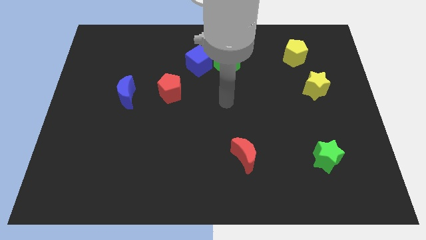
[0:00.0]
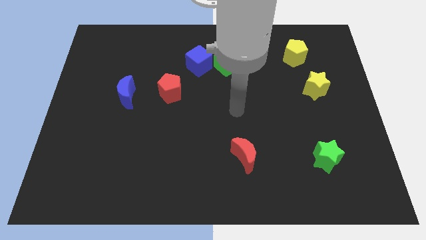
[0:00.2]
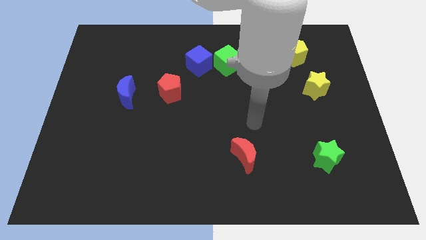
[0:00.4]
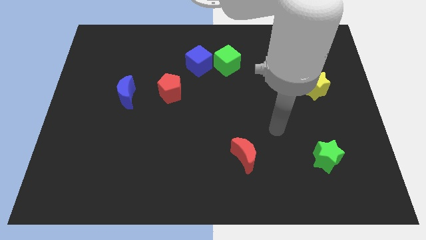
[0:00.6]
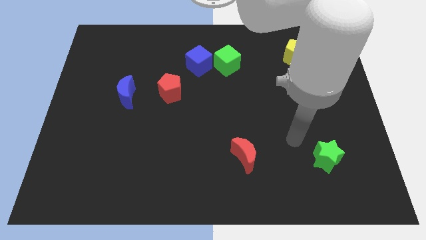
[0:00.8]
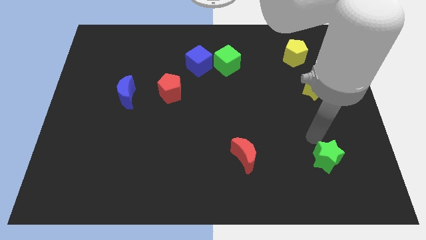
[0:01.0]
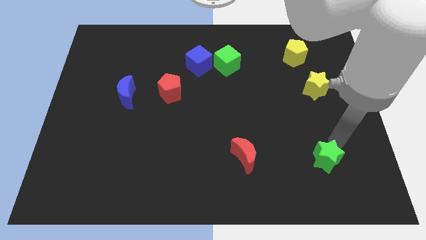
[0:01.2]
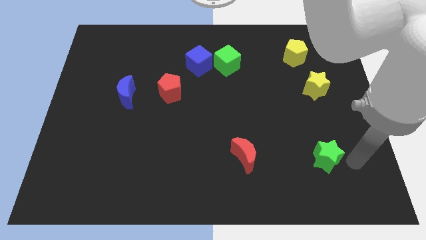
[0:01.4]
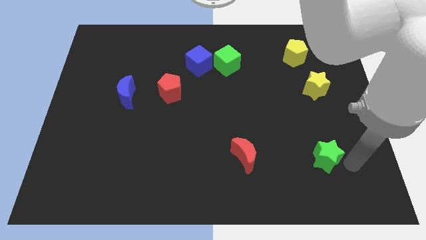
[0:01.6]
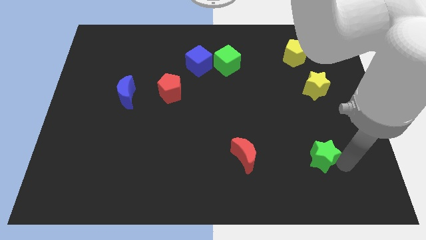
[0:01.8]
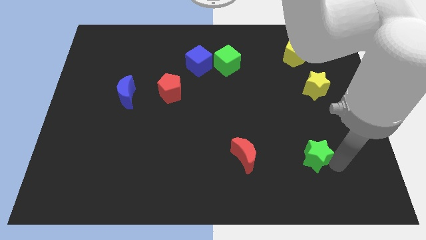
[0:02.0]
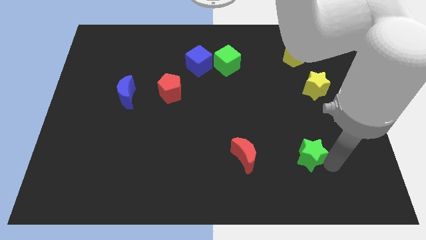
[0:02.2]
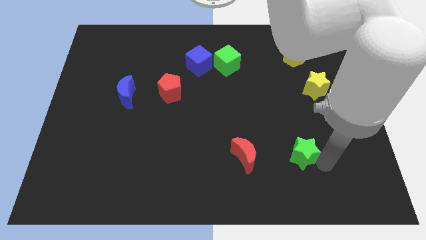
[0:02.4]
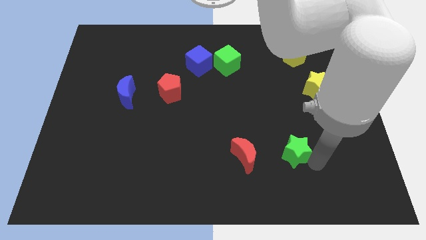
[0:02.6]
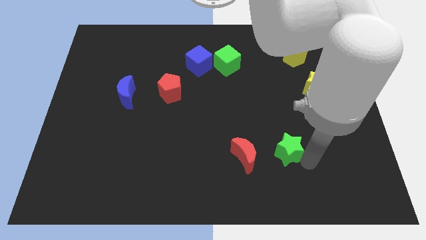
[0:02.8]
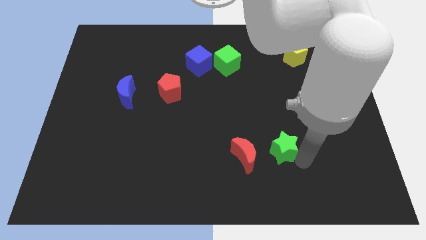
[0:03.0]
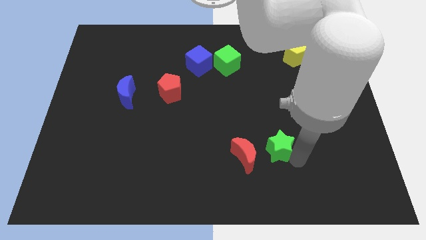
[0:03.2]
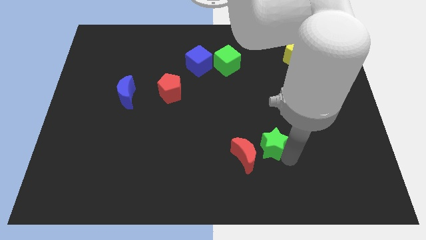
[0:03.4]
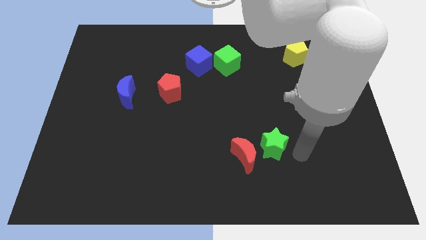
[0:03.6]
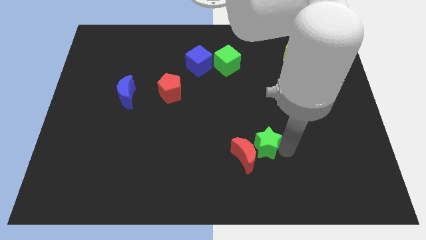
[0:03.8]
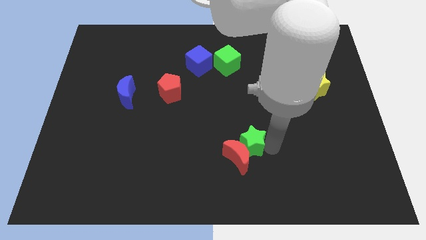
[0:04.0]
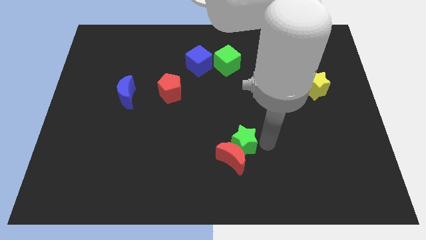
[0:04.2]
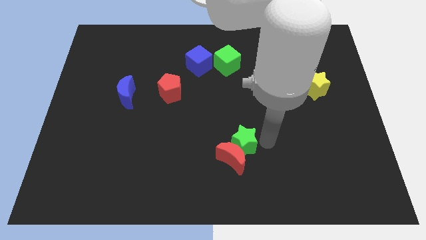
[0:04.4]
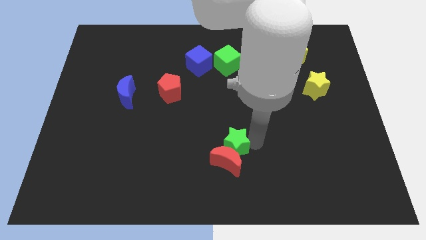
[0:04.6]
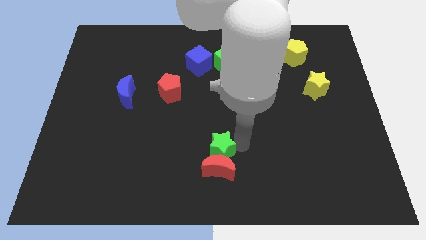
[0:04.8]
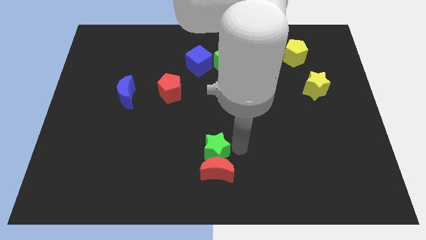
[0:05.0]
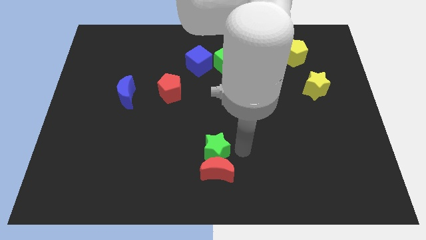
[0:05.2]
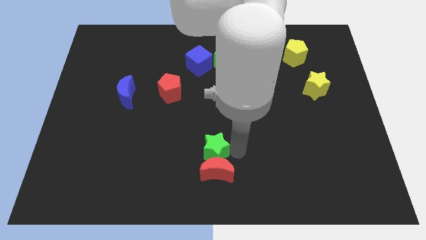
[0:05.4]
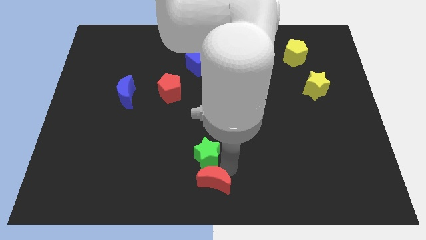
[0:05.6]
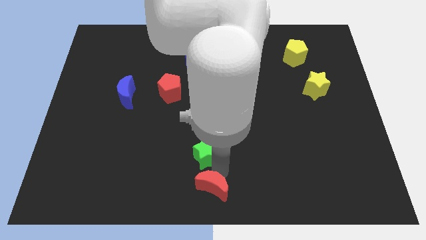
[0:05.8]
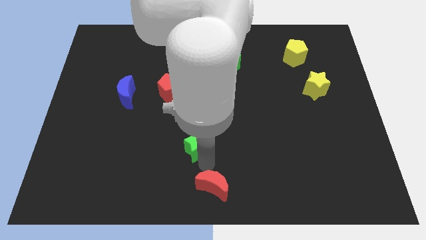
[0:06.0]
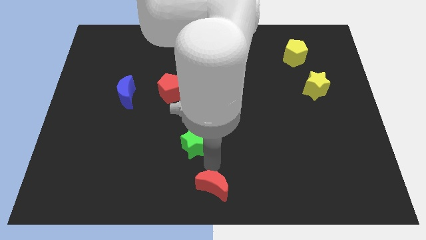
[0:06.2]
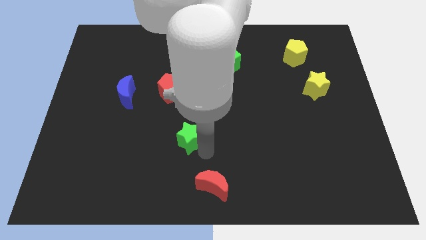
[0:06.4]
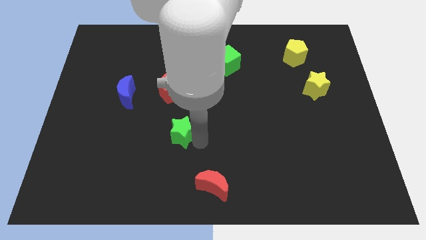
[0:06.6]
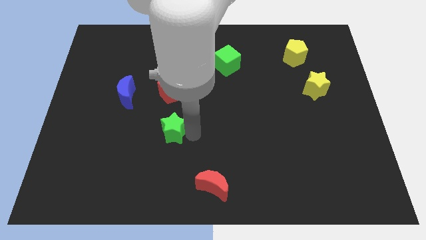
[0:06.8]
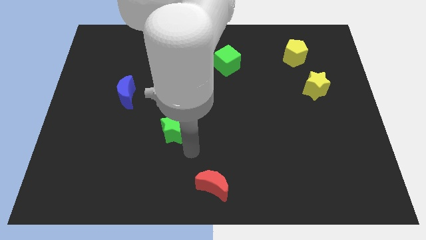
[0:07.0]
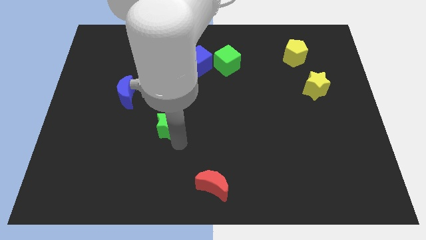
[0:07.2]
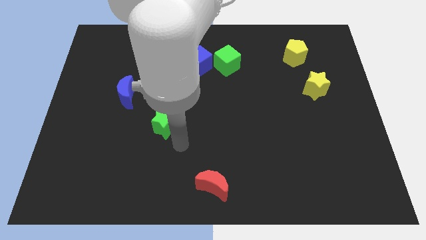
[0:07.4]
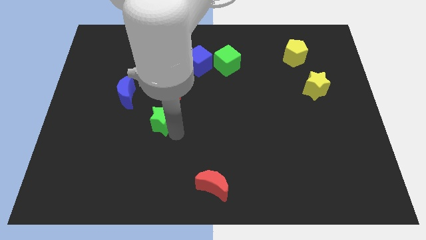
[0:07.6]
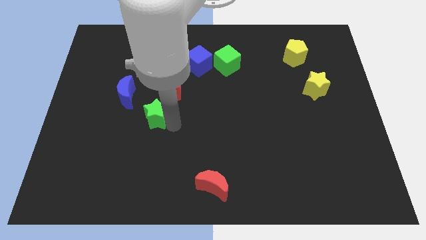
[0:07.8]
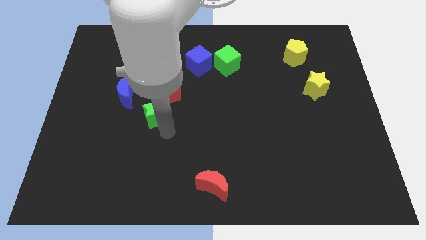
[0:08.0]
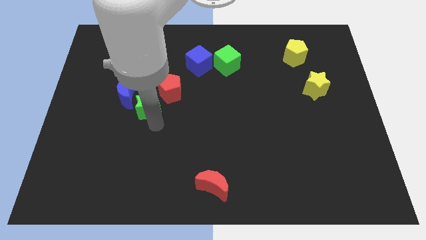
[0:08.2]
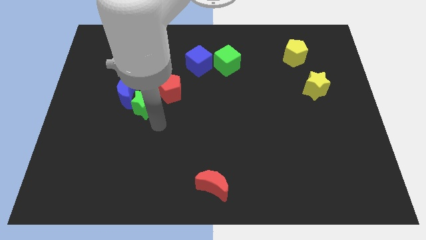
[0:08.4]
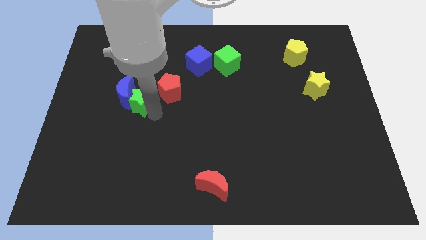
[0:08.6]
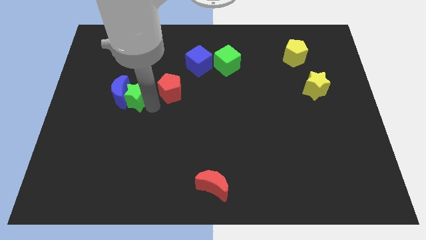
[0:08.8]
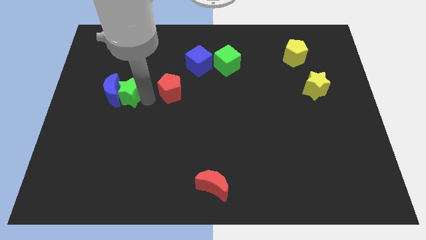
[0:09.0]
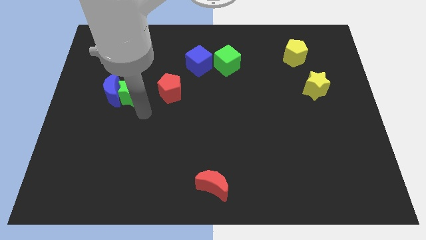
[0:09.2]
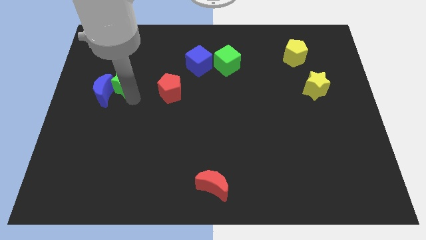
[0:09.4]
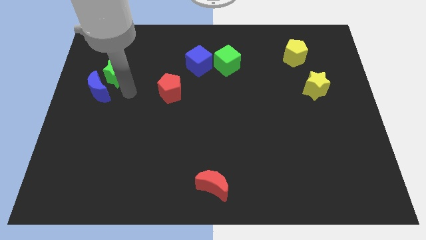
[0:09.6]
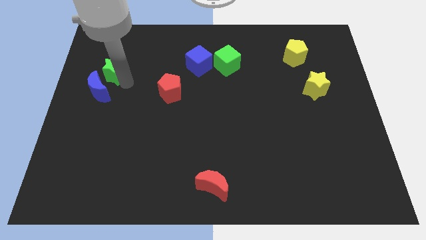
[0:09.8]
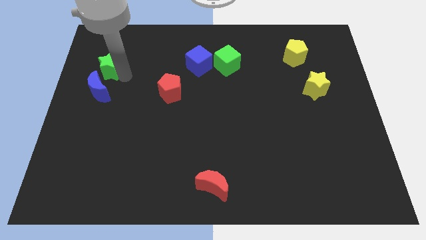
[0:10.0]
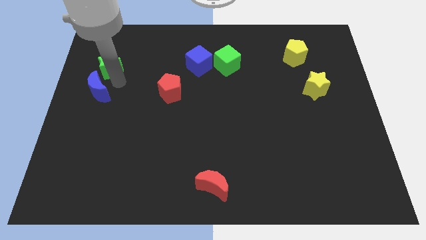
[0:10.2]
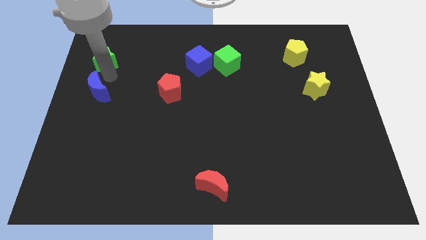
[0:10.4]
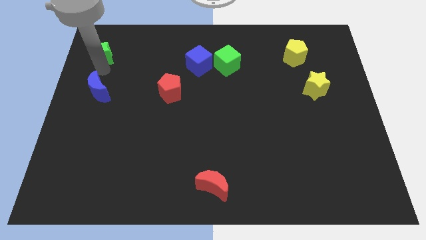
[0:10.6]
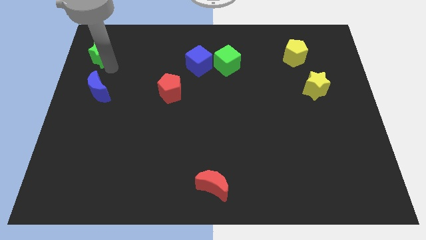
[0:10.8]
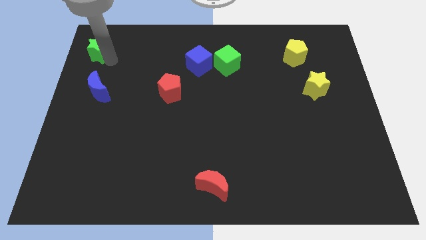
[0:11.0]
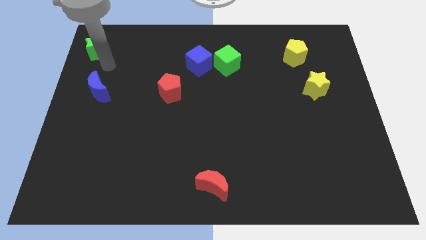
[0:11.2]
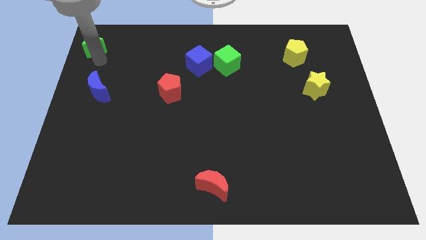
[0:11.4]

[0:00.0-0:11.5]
put the green star to the top left of the board

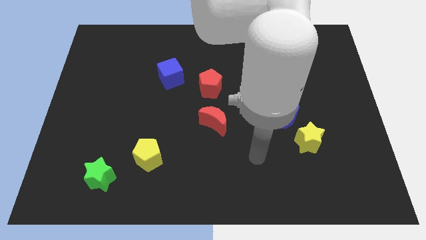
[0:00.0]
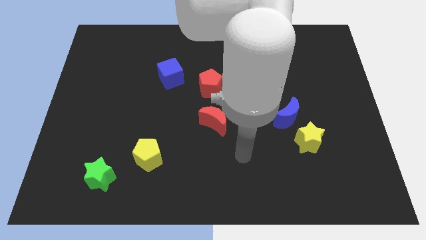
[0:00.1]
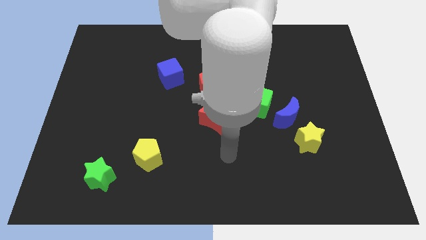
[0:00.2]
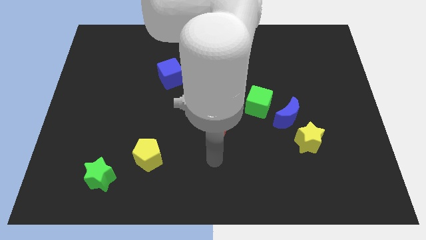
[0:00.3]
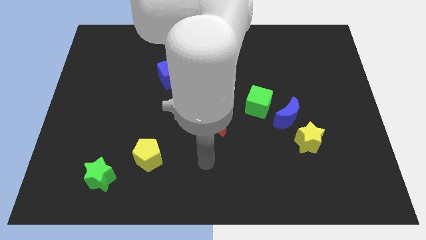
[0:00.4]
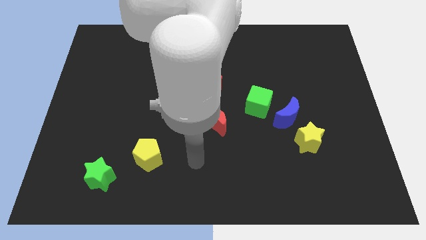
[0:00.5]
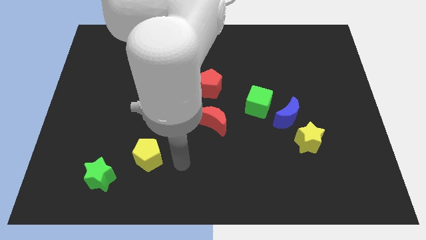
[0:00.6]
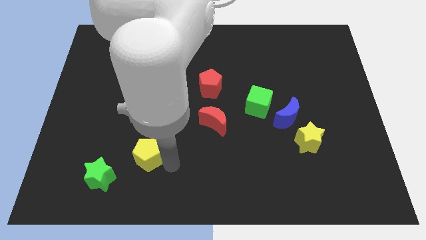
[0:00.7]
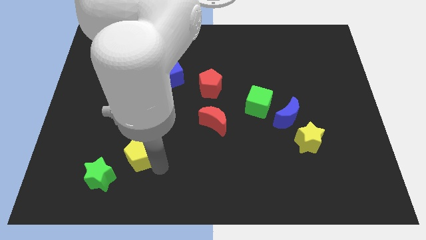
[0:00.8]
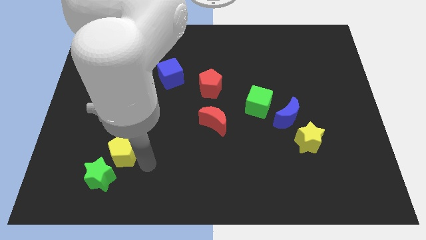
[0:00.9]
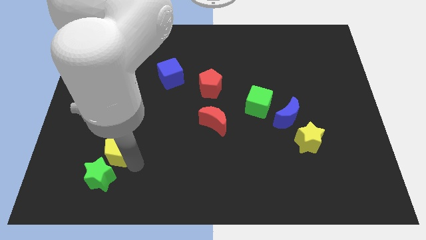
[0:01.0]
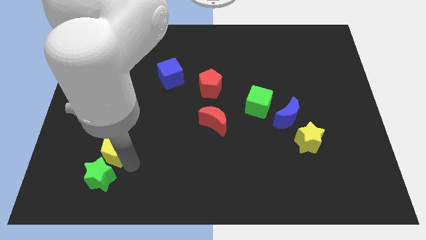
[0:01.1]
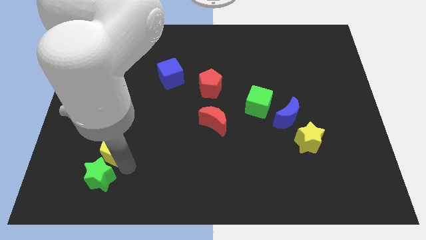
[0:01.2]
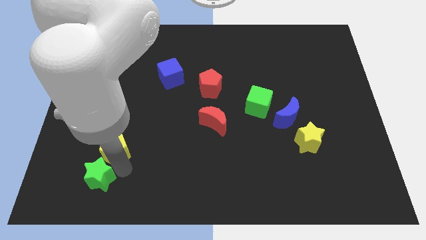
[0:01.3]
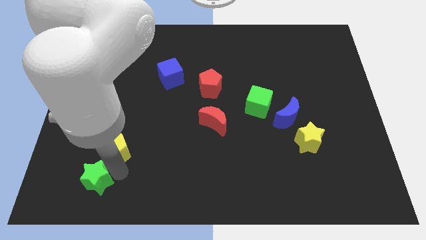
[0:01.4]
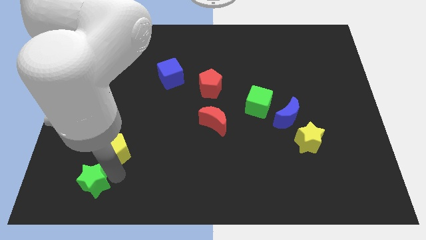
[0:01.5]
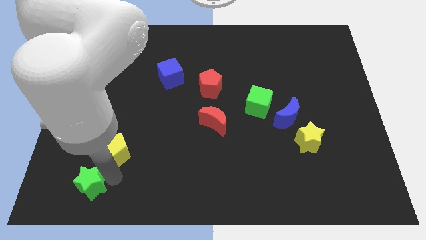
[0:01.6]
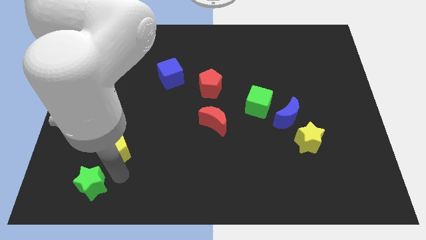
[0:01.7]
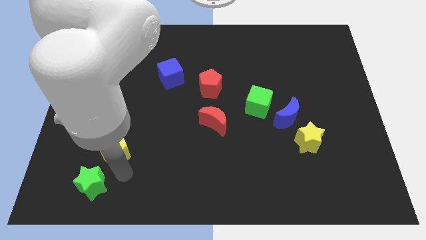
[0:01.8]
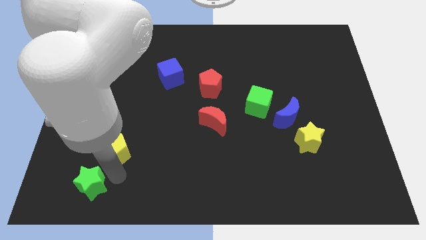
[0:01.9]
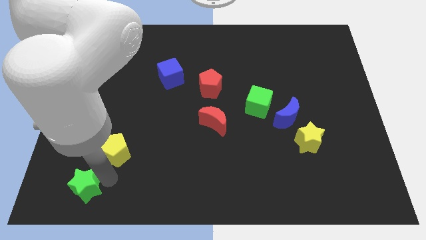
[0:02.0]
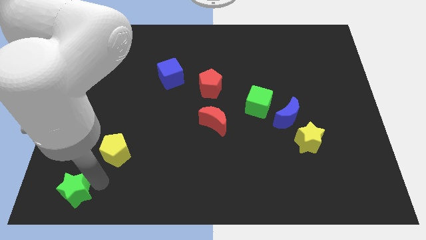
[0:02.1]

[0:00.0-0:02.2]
move the green star to the bottom left of the board
